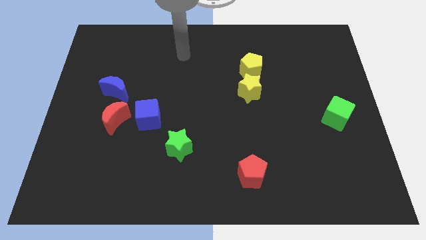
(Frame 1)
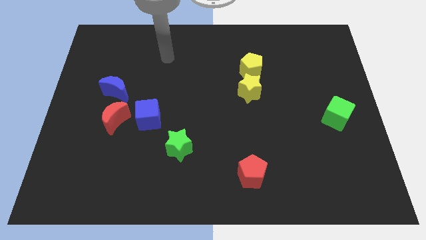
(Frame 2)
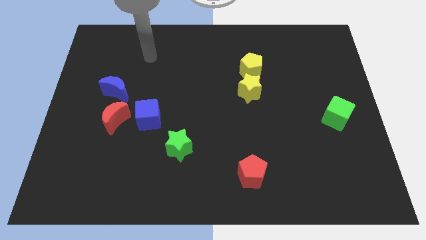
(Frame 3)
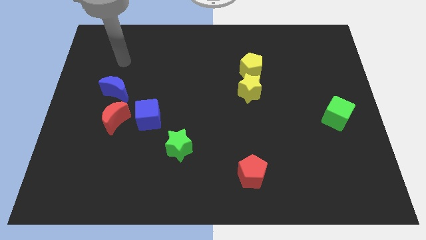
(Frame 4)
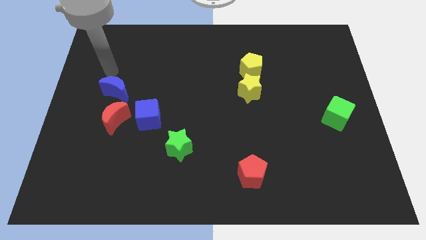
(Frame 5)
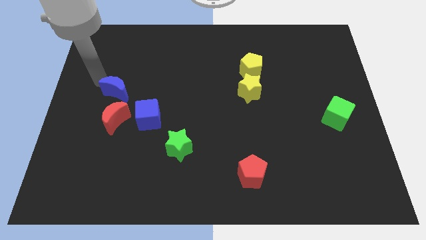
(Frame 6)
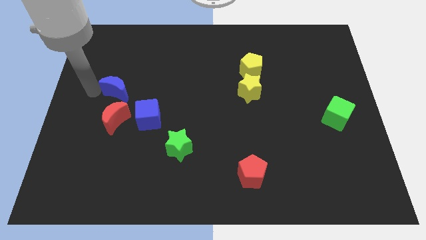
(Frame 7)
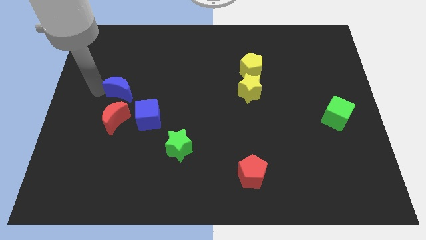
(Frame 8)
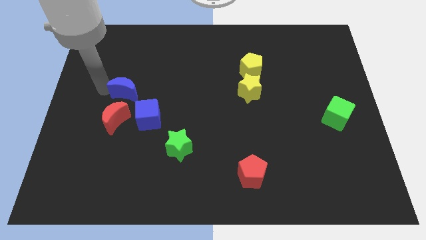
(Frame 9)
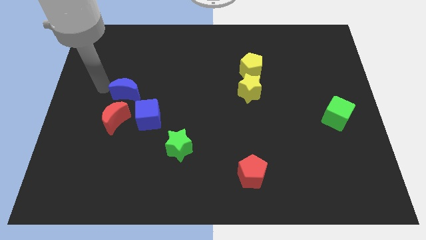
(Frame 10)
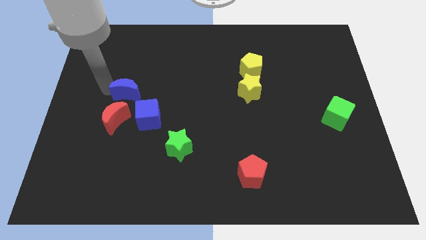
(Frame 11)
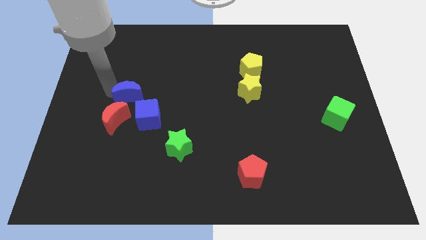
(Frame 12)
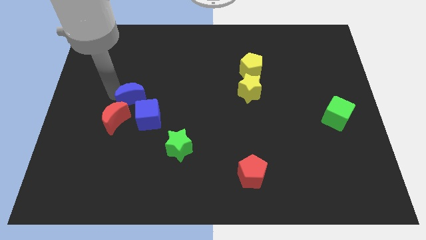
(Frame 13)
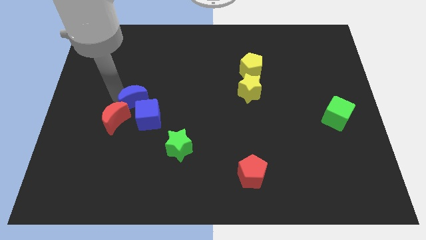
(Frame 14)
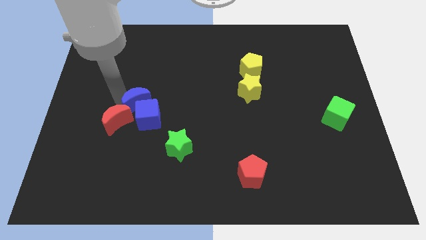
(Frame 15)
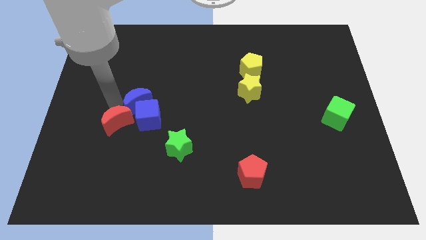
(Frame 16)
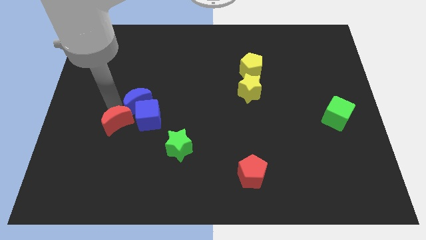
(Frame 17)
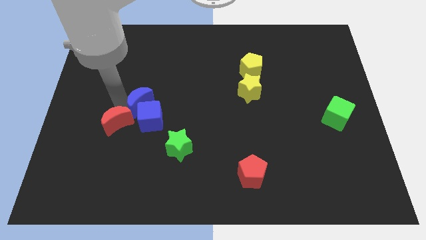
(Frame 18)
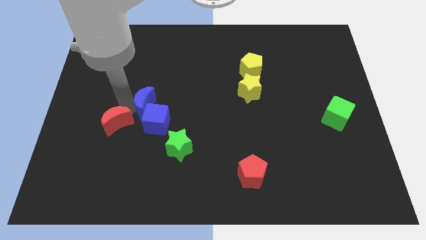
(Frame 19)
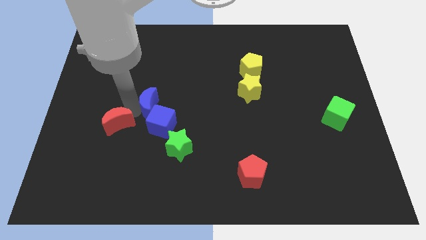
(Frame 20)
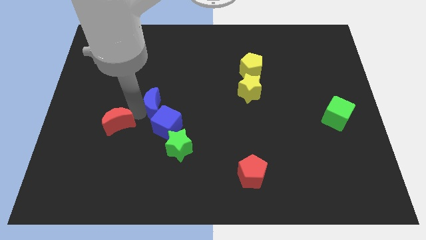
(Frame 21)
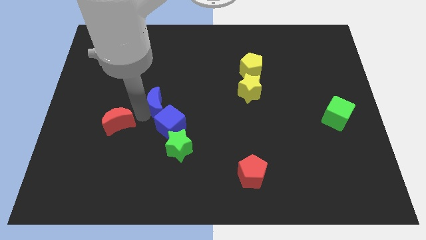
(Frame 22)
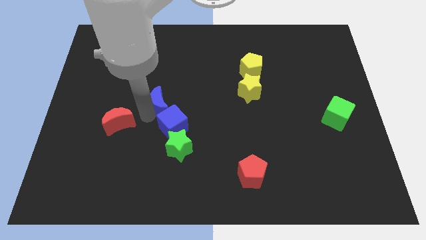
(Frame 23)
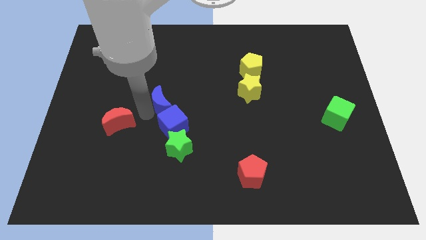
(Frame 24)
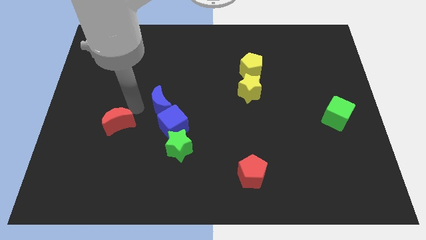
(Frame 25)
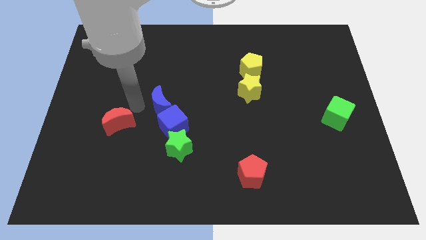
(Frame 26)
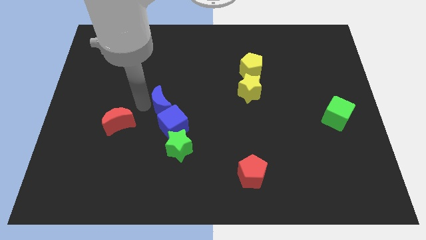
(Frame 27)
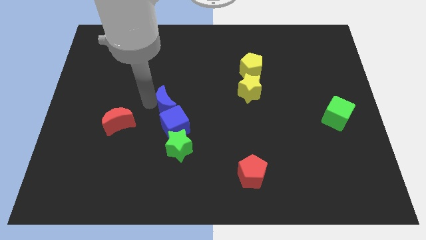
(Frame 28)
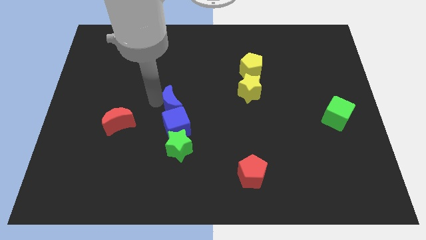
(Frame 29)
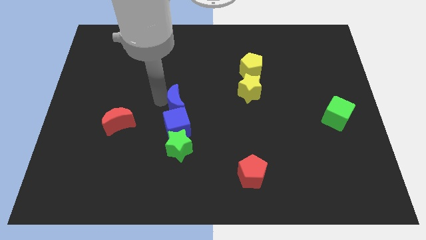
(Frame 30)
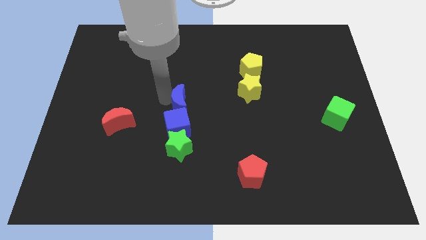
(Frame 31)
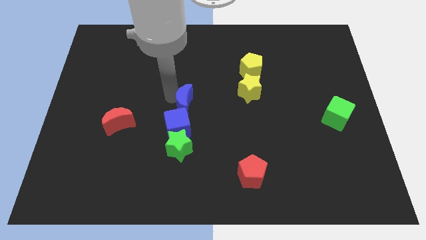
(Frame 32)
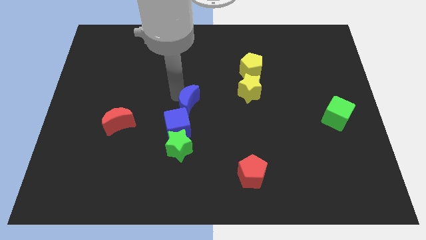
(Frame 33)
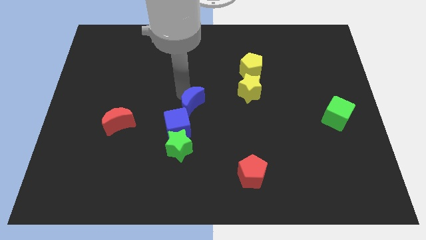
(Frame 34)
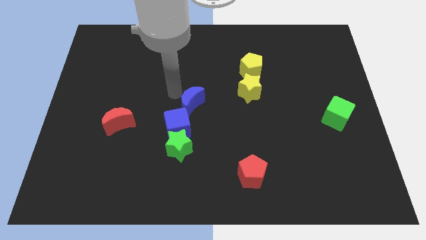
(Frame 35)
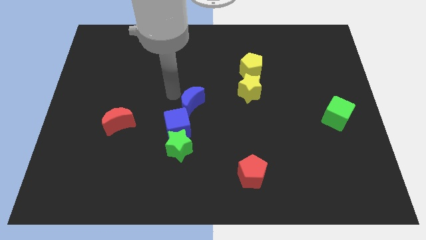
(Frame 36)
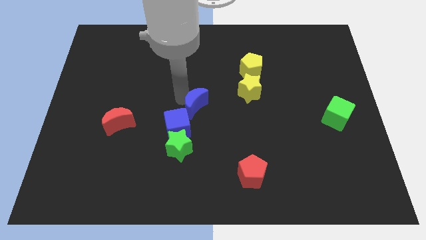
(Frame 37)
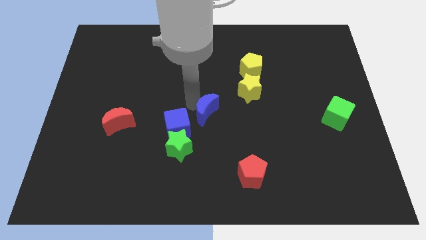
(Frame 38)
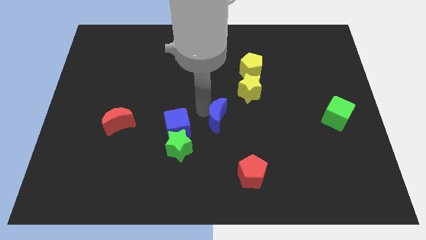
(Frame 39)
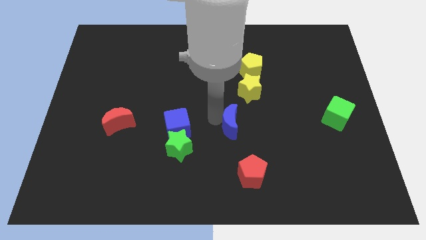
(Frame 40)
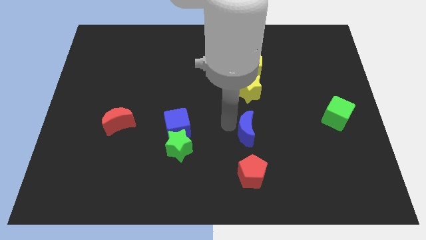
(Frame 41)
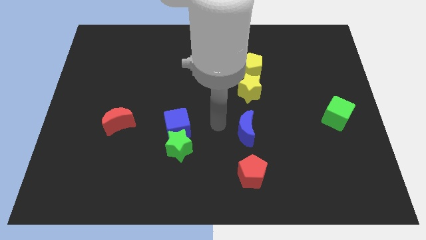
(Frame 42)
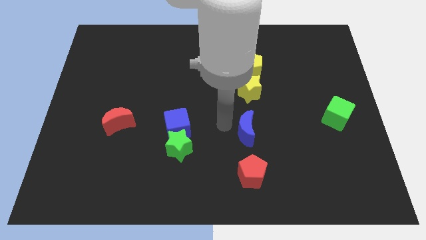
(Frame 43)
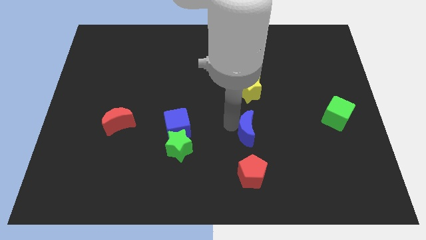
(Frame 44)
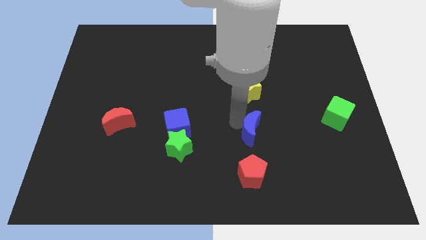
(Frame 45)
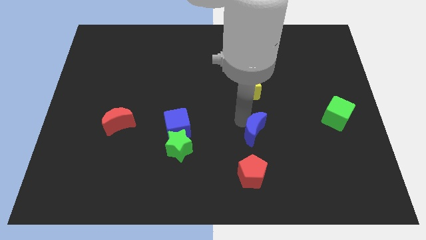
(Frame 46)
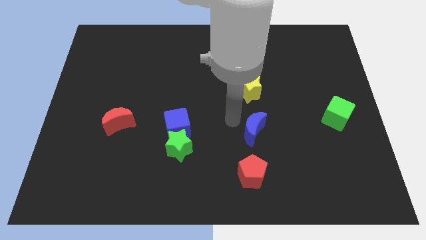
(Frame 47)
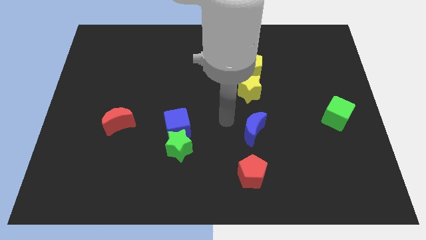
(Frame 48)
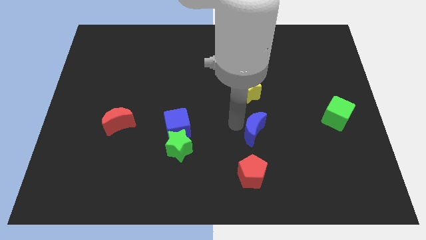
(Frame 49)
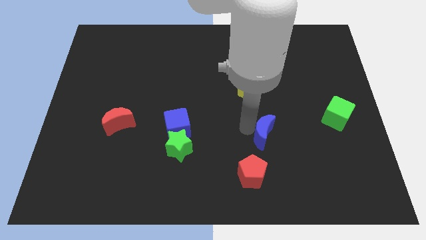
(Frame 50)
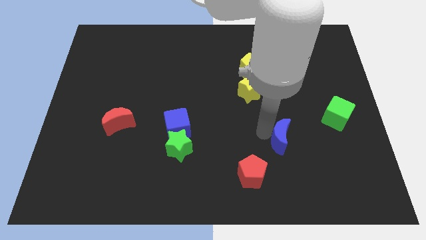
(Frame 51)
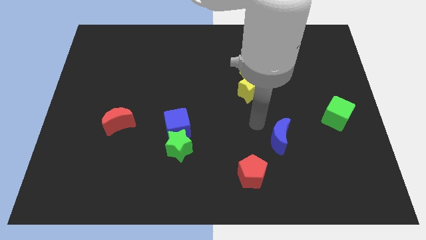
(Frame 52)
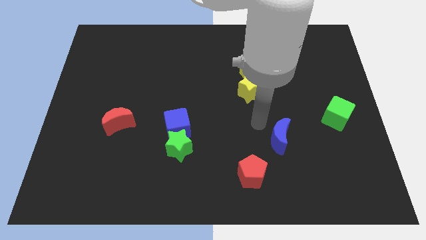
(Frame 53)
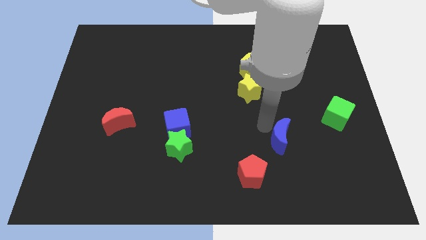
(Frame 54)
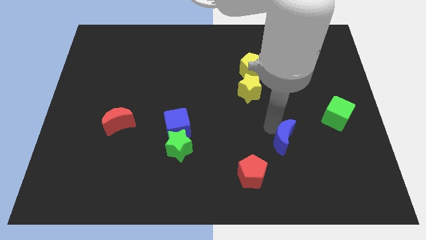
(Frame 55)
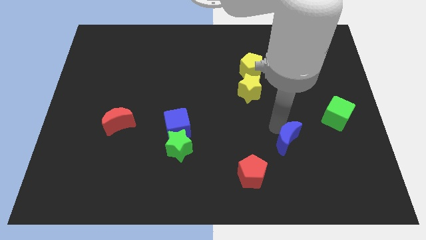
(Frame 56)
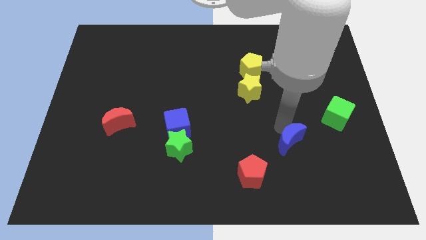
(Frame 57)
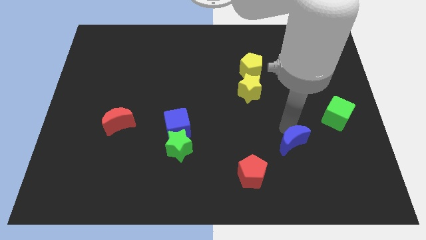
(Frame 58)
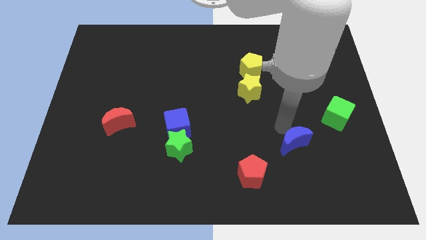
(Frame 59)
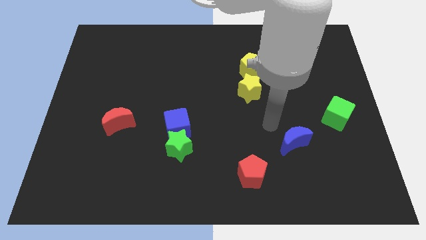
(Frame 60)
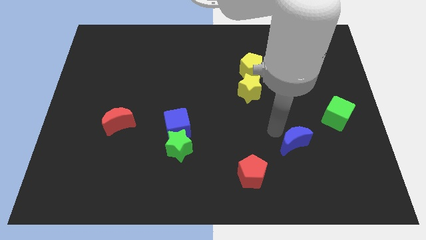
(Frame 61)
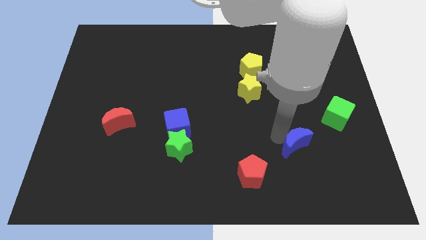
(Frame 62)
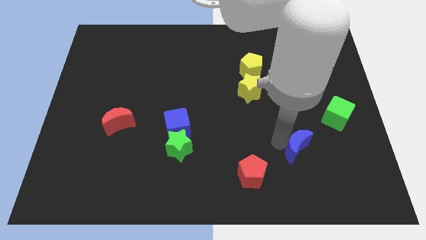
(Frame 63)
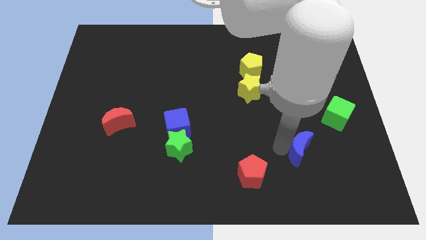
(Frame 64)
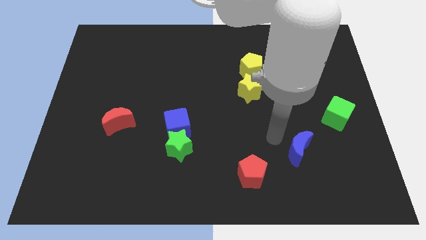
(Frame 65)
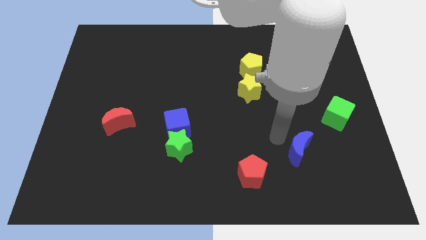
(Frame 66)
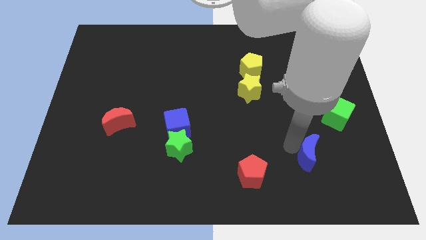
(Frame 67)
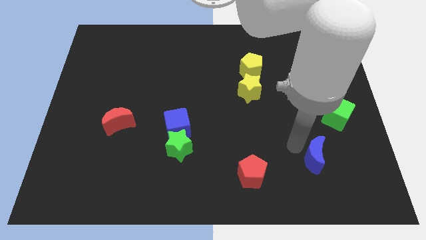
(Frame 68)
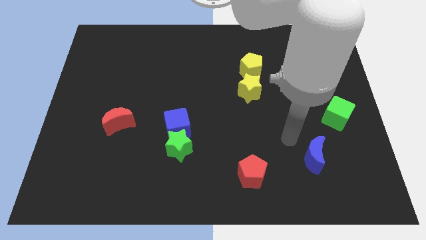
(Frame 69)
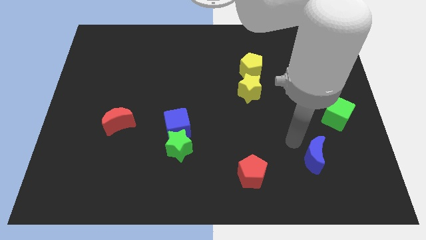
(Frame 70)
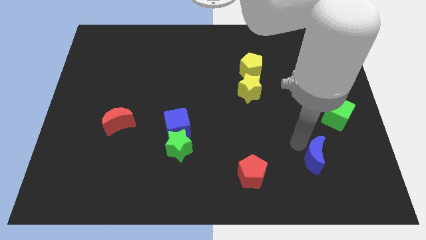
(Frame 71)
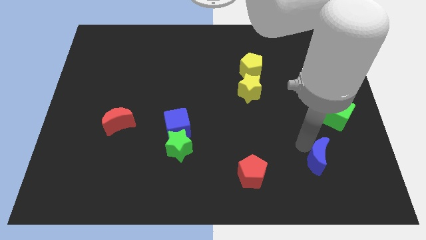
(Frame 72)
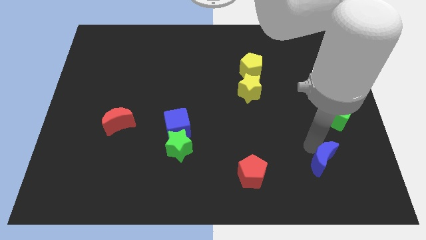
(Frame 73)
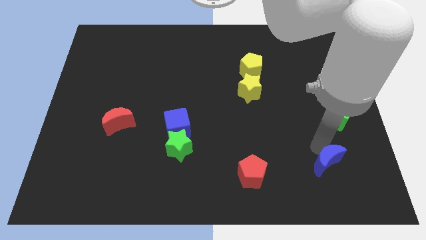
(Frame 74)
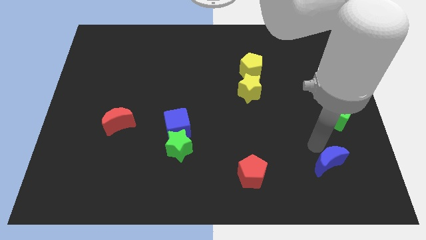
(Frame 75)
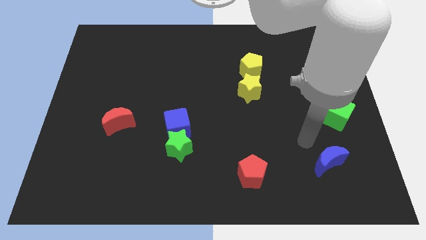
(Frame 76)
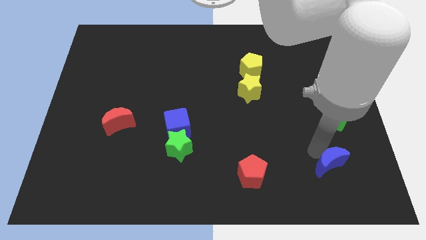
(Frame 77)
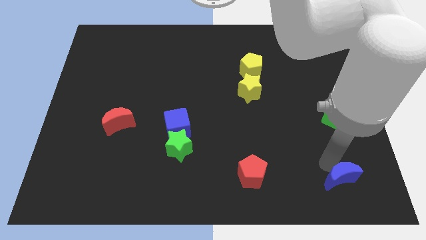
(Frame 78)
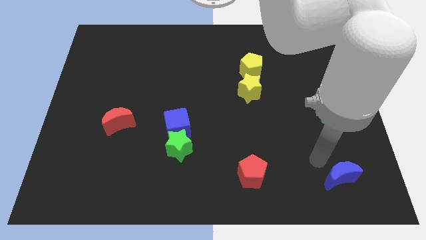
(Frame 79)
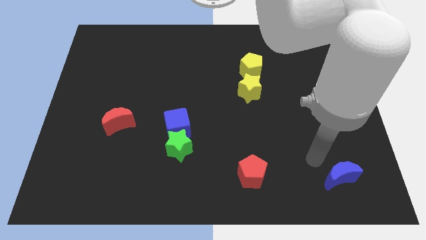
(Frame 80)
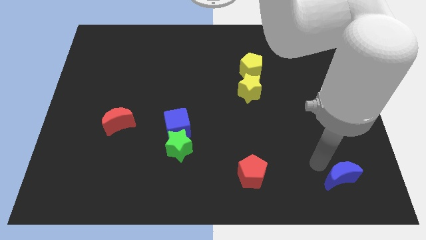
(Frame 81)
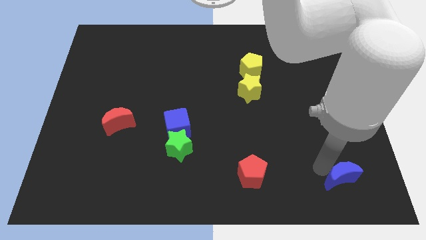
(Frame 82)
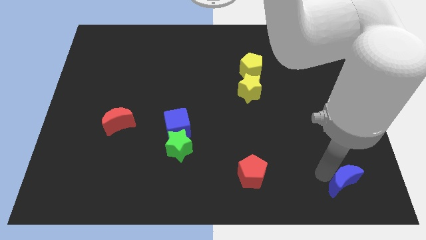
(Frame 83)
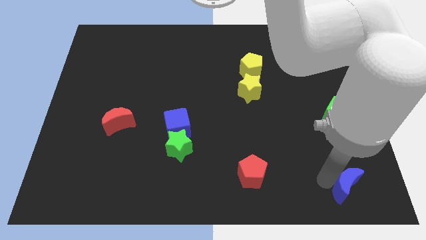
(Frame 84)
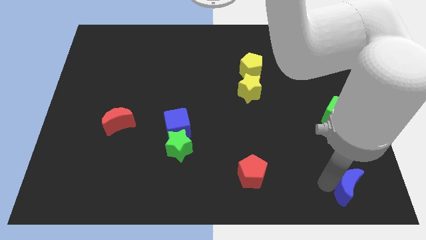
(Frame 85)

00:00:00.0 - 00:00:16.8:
push the blue moon to the lower right corner
